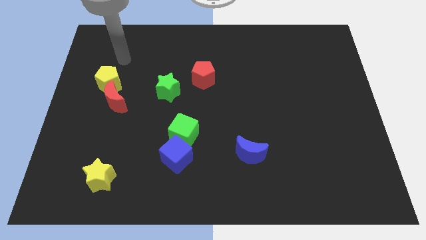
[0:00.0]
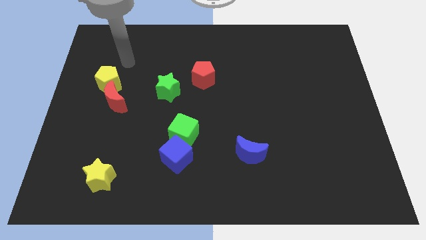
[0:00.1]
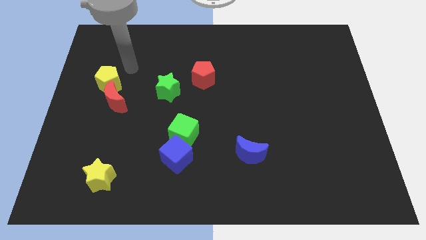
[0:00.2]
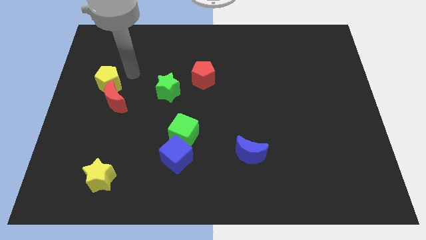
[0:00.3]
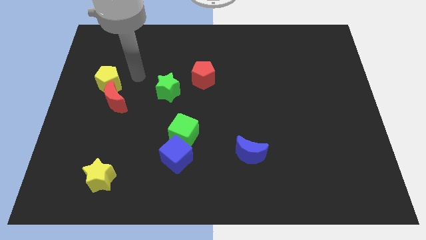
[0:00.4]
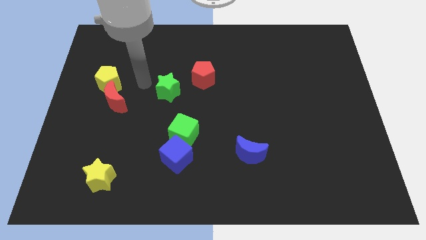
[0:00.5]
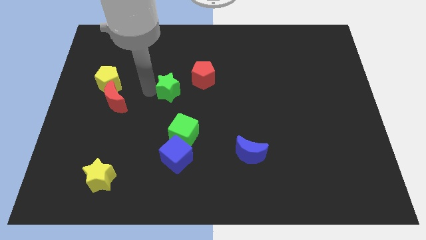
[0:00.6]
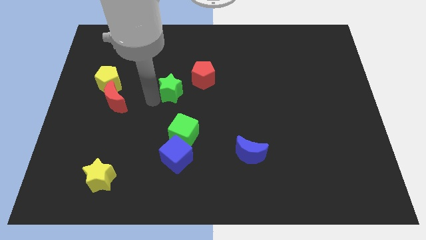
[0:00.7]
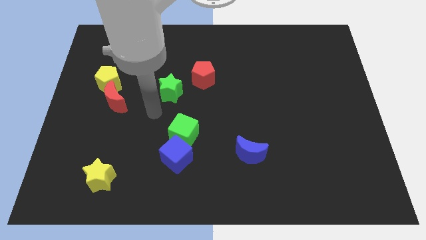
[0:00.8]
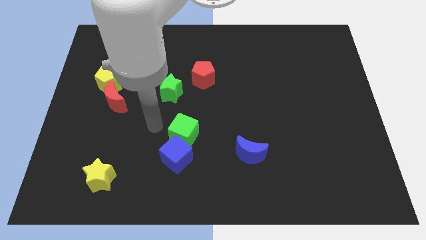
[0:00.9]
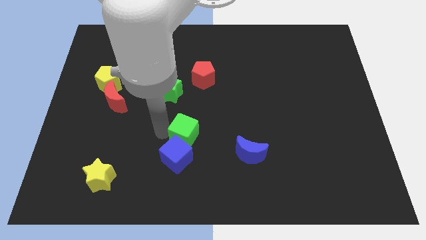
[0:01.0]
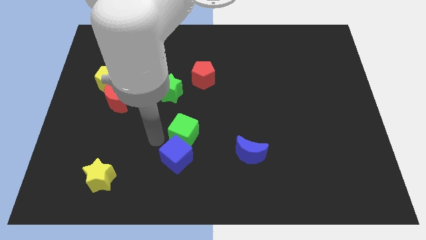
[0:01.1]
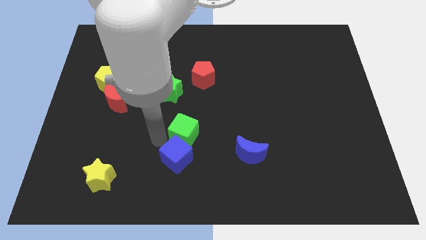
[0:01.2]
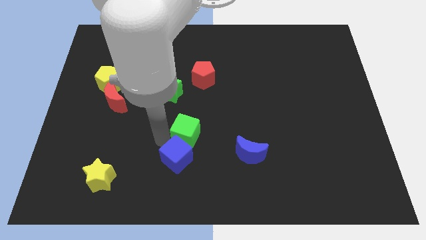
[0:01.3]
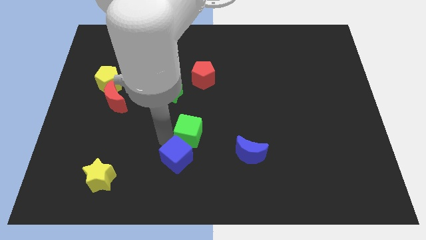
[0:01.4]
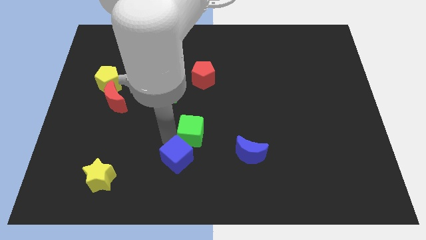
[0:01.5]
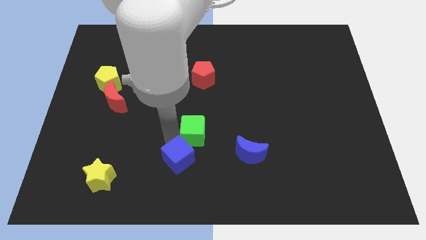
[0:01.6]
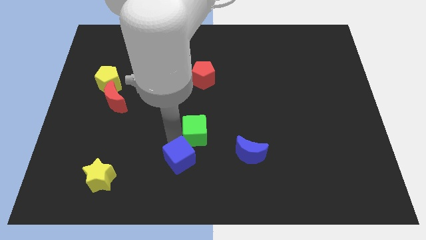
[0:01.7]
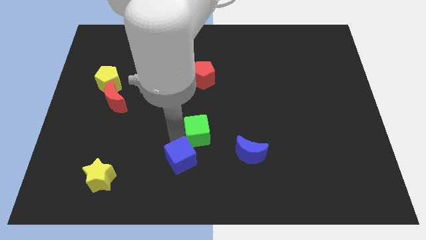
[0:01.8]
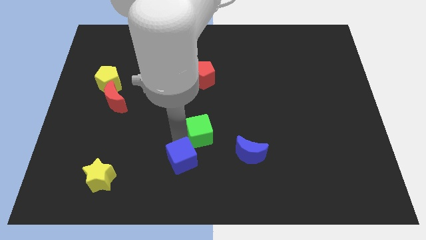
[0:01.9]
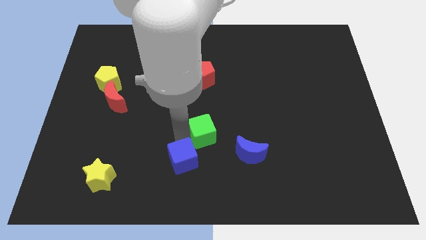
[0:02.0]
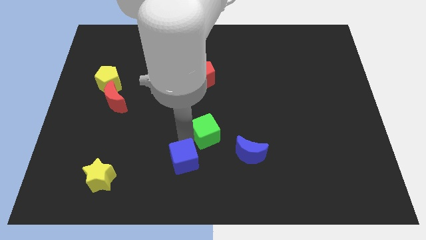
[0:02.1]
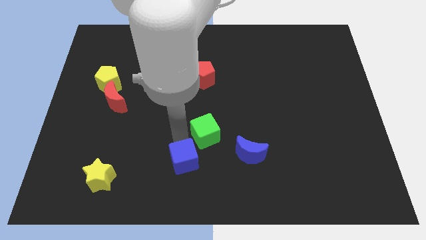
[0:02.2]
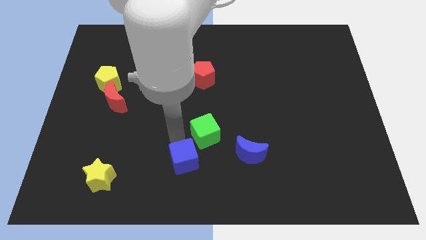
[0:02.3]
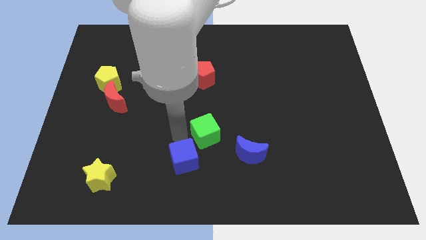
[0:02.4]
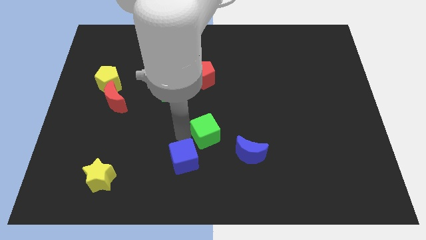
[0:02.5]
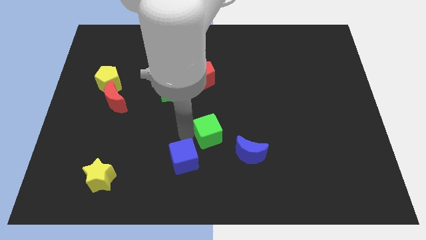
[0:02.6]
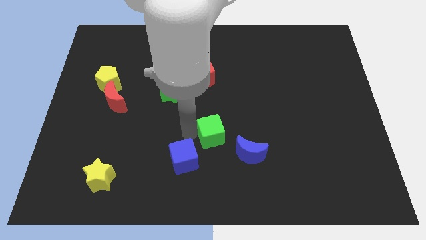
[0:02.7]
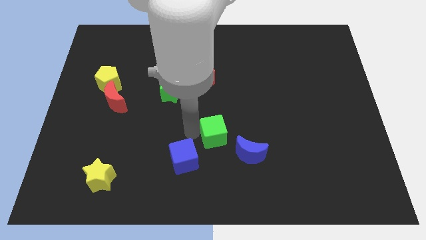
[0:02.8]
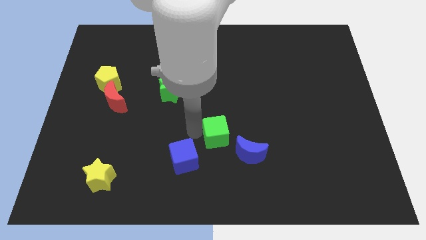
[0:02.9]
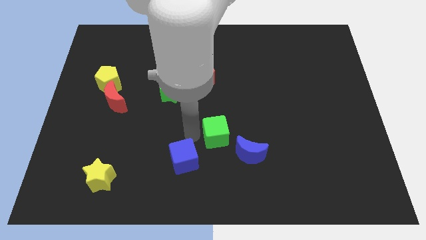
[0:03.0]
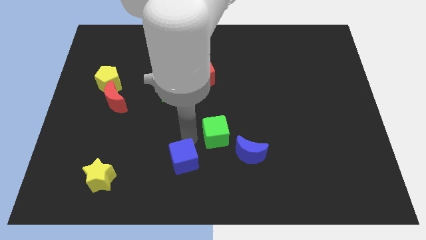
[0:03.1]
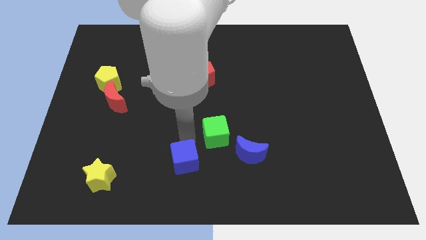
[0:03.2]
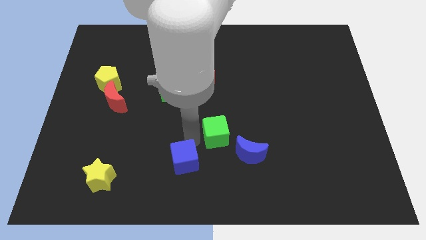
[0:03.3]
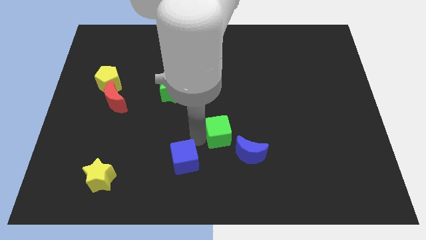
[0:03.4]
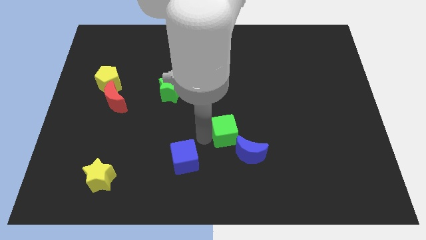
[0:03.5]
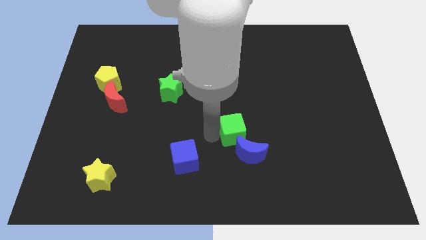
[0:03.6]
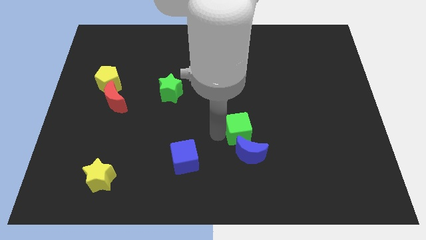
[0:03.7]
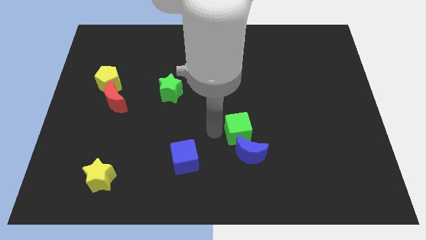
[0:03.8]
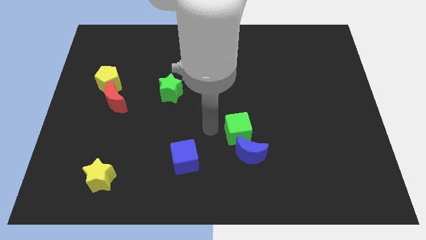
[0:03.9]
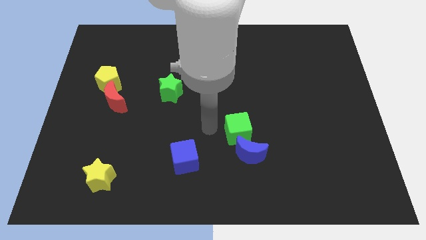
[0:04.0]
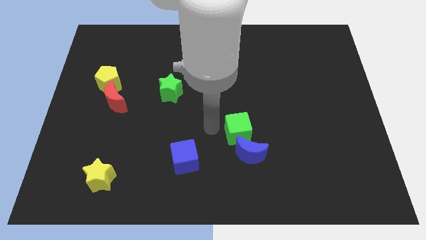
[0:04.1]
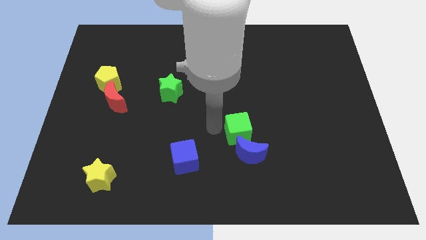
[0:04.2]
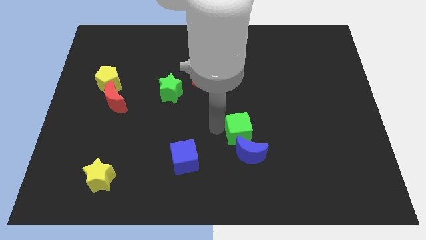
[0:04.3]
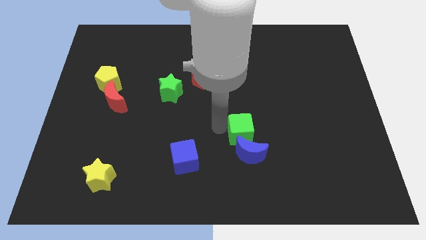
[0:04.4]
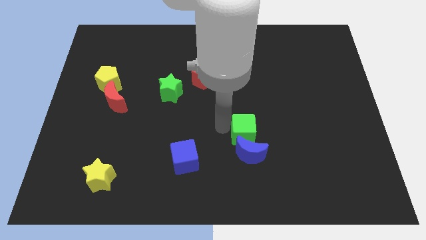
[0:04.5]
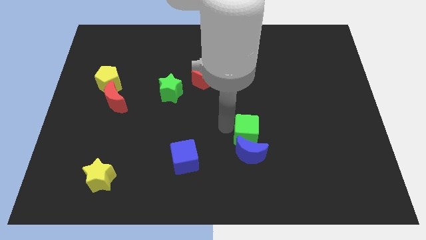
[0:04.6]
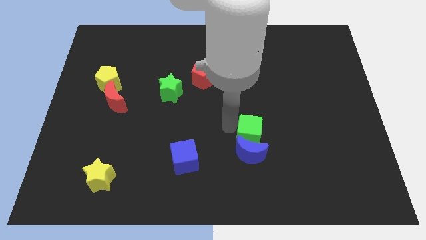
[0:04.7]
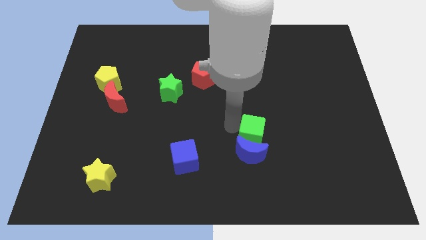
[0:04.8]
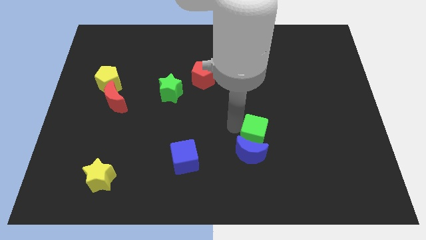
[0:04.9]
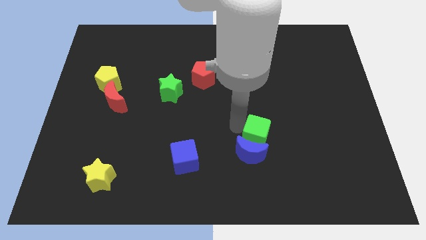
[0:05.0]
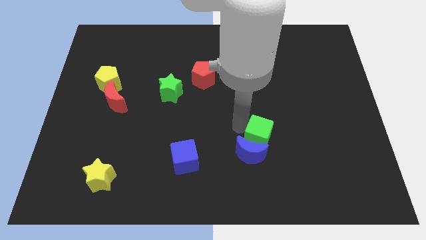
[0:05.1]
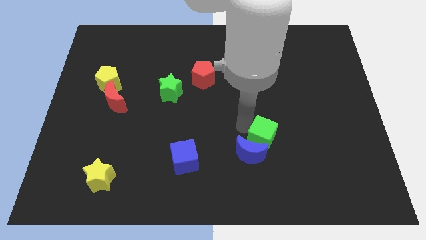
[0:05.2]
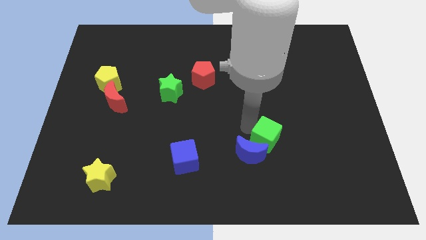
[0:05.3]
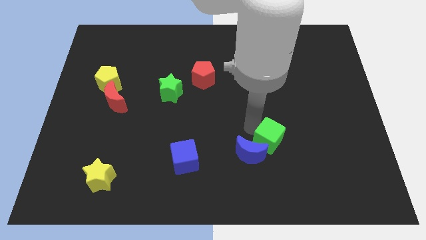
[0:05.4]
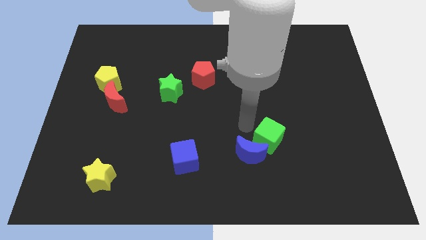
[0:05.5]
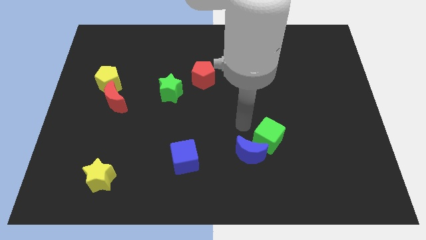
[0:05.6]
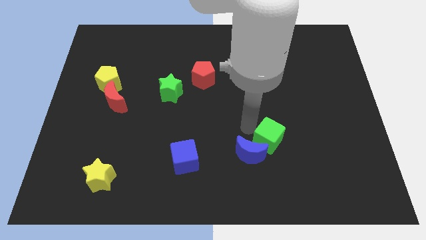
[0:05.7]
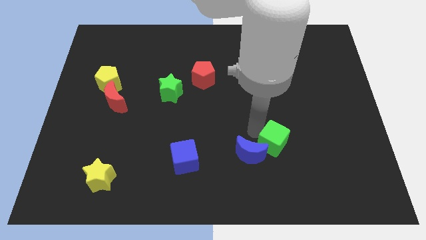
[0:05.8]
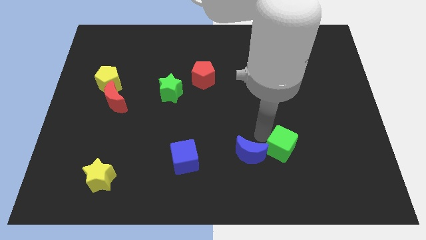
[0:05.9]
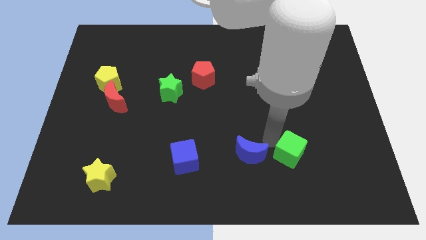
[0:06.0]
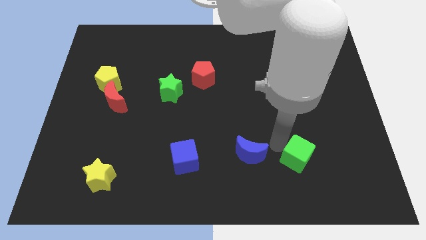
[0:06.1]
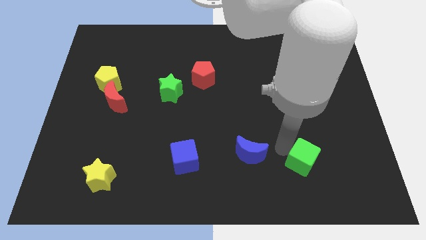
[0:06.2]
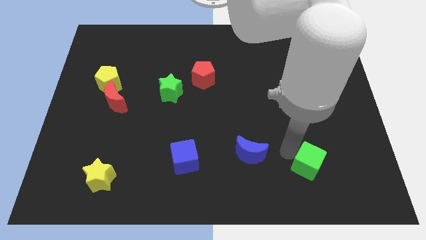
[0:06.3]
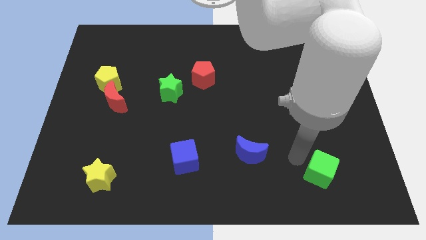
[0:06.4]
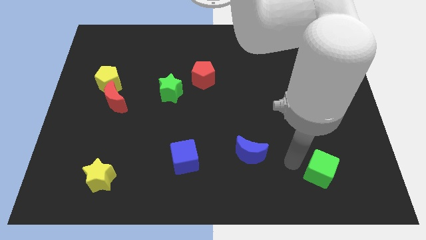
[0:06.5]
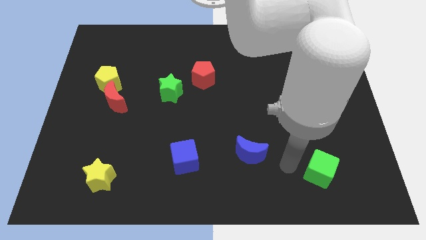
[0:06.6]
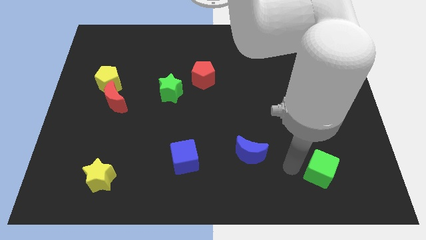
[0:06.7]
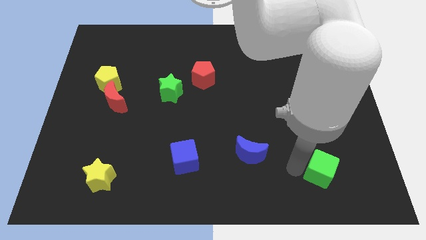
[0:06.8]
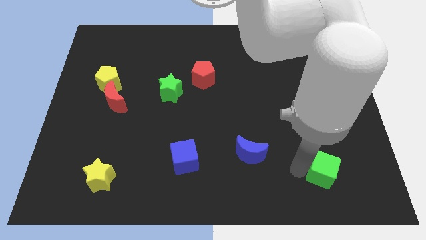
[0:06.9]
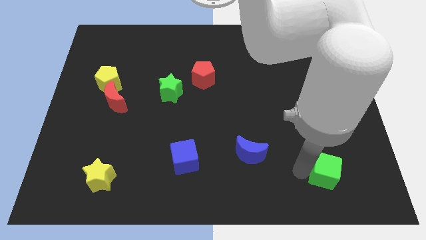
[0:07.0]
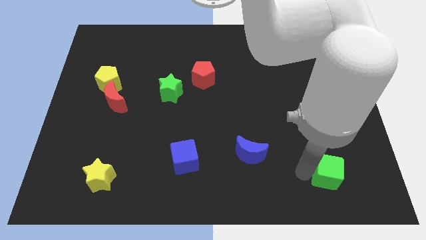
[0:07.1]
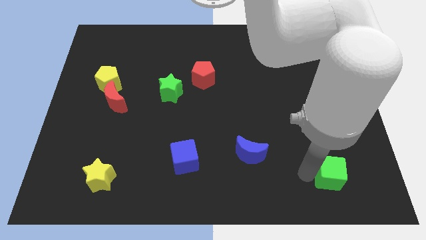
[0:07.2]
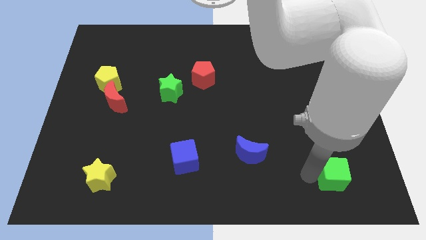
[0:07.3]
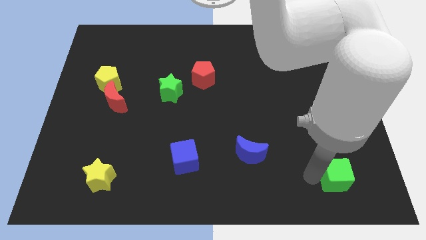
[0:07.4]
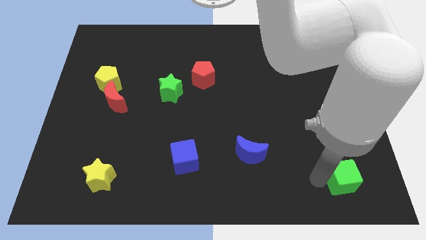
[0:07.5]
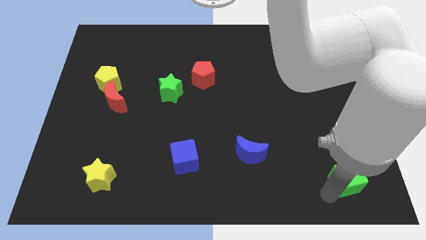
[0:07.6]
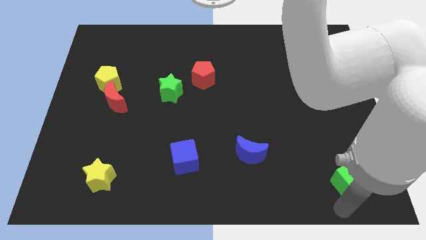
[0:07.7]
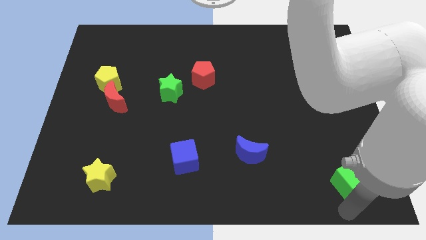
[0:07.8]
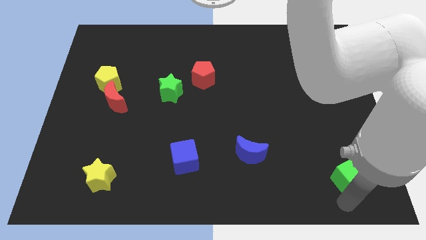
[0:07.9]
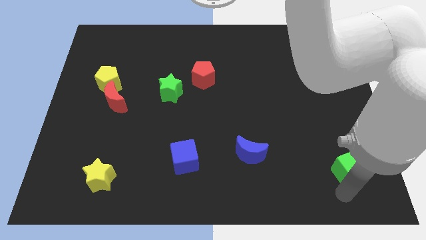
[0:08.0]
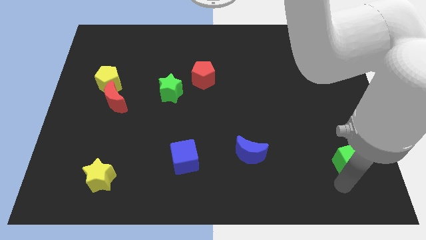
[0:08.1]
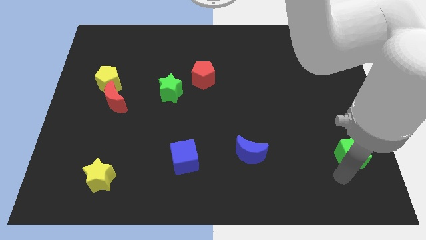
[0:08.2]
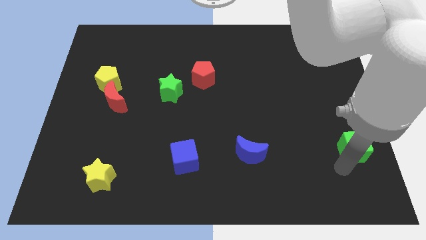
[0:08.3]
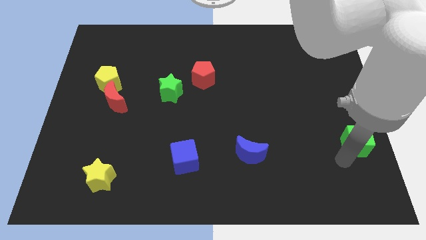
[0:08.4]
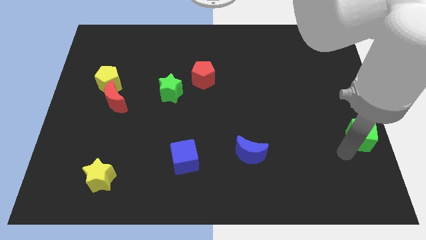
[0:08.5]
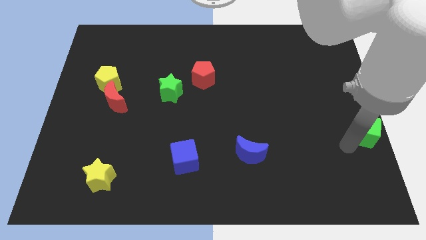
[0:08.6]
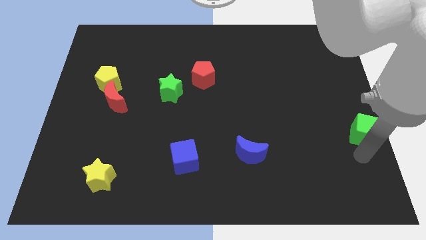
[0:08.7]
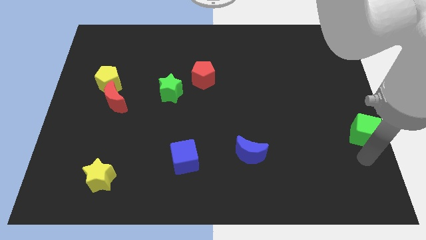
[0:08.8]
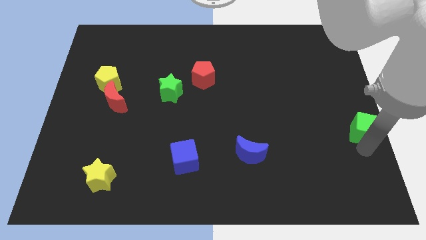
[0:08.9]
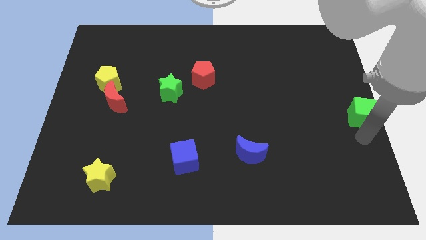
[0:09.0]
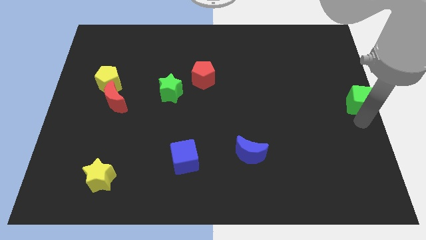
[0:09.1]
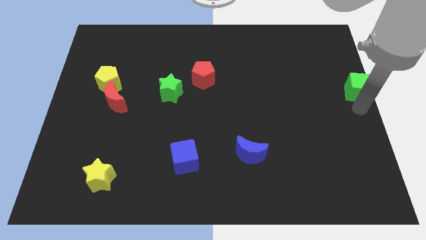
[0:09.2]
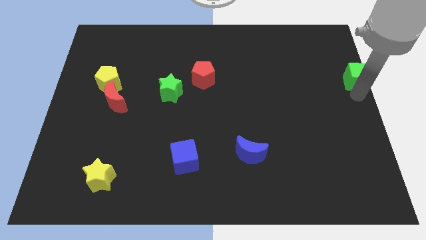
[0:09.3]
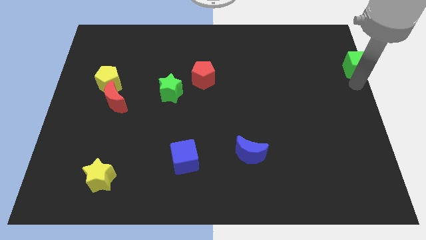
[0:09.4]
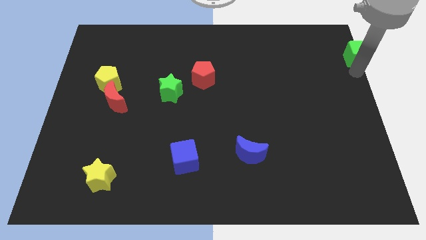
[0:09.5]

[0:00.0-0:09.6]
move the green cube to the top right of the board
